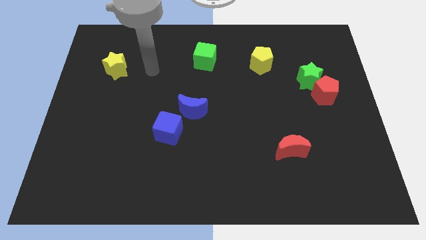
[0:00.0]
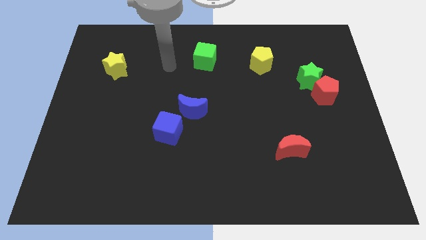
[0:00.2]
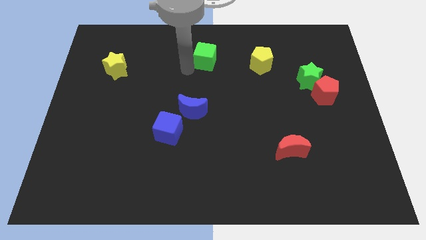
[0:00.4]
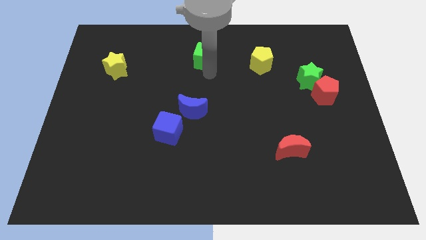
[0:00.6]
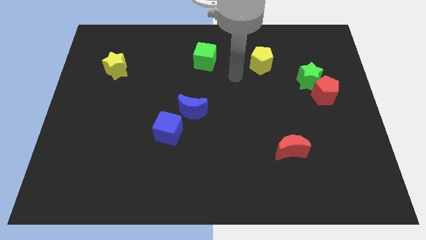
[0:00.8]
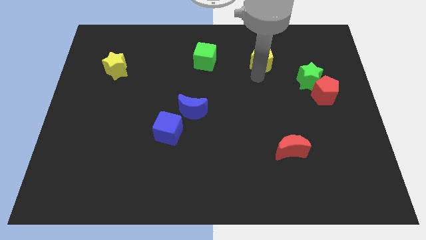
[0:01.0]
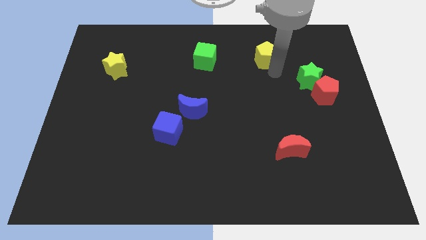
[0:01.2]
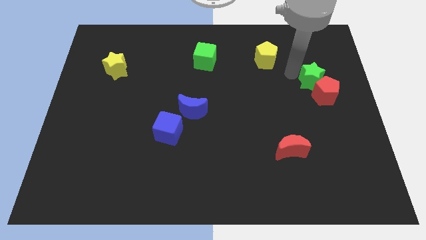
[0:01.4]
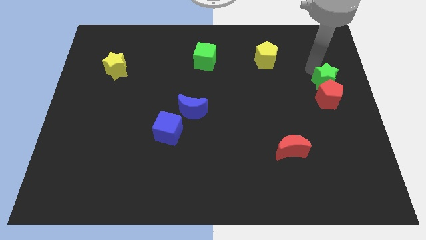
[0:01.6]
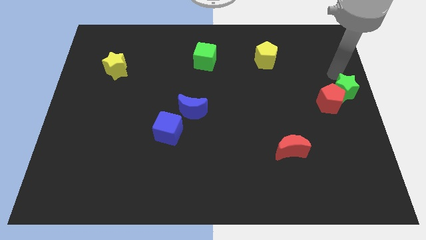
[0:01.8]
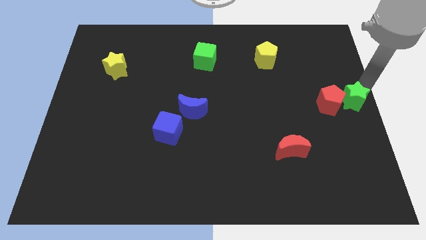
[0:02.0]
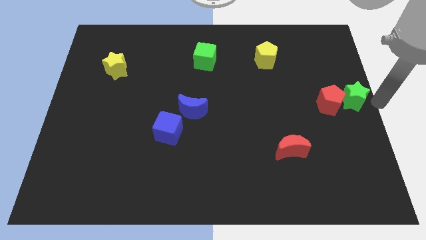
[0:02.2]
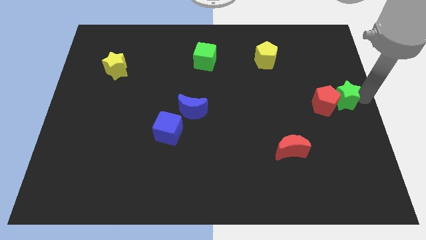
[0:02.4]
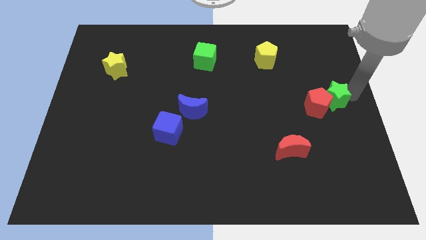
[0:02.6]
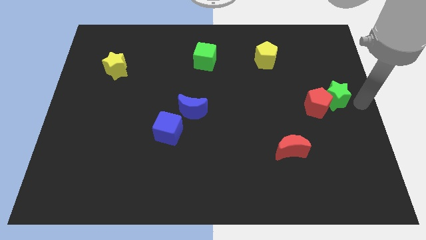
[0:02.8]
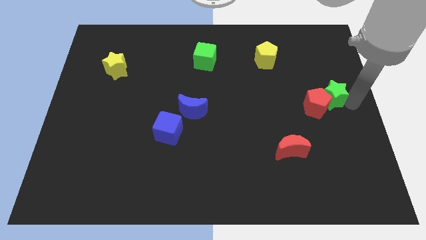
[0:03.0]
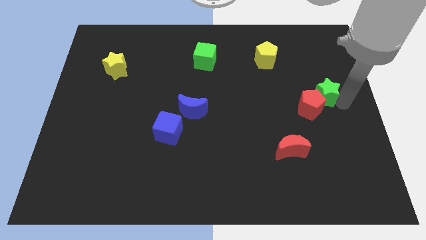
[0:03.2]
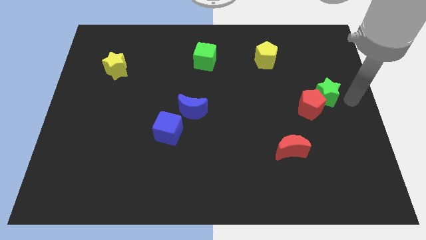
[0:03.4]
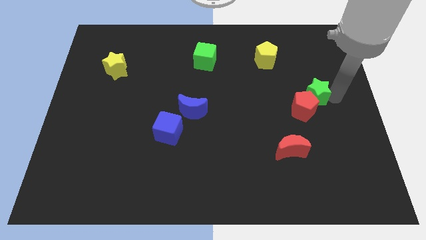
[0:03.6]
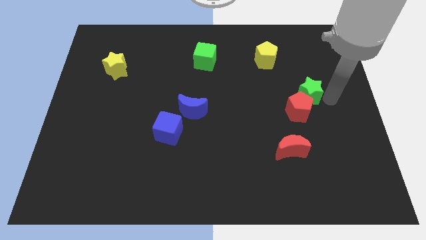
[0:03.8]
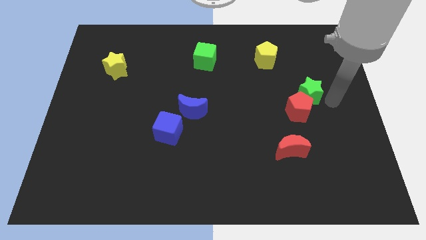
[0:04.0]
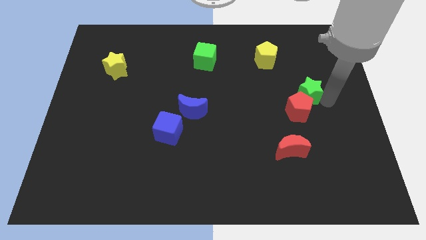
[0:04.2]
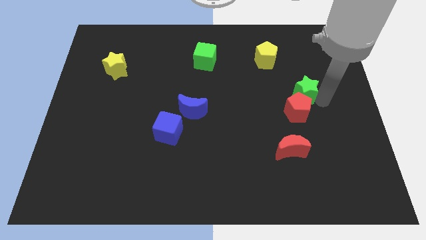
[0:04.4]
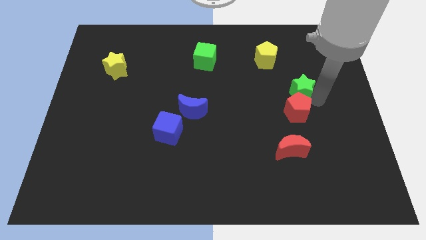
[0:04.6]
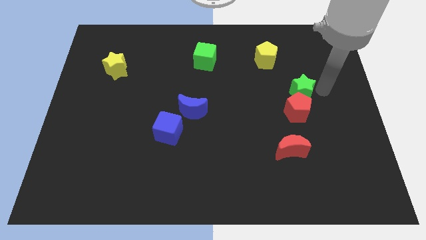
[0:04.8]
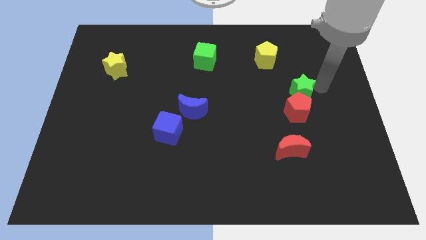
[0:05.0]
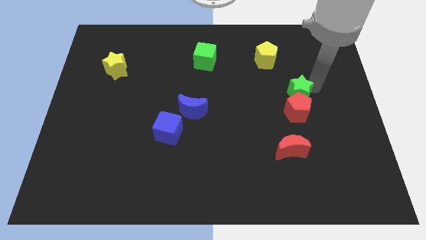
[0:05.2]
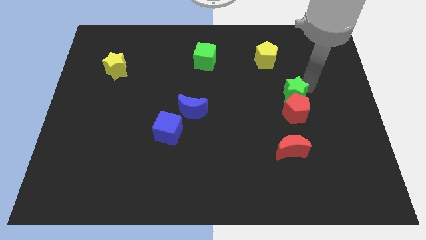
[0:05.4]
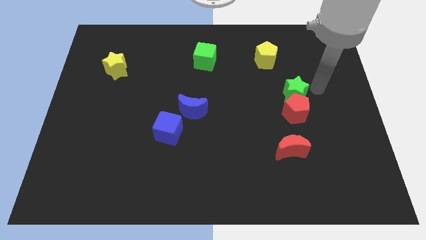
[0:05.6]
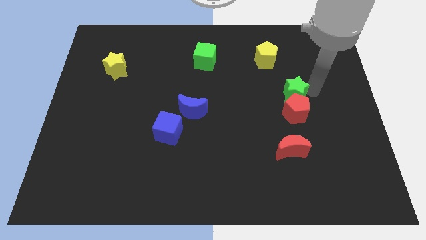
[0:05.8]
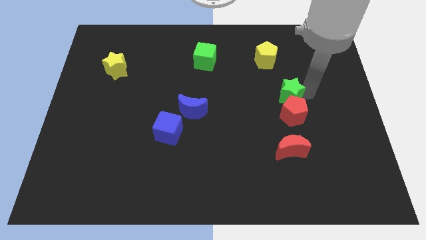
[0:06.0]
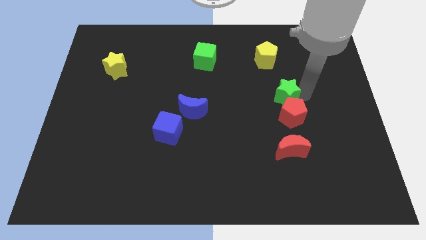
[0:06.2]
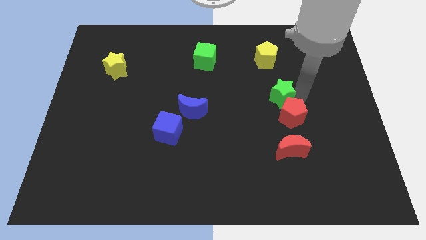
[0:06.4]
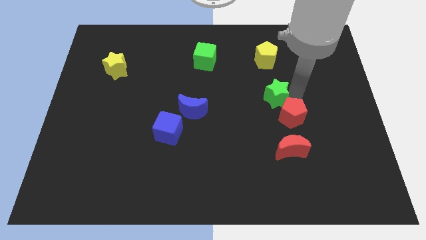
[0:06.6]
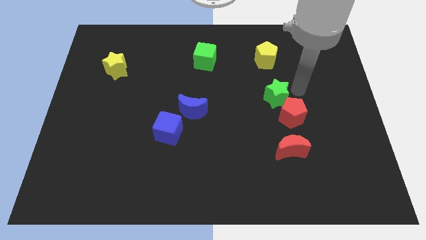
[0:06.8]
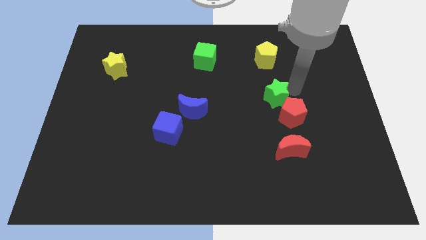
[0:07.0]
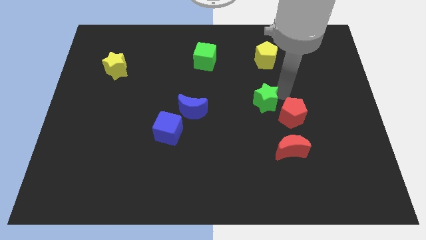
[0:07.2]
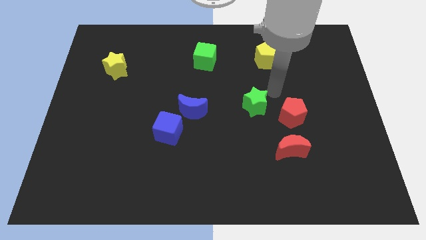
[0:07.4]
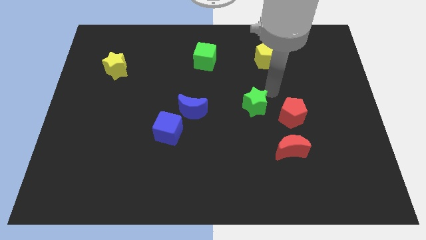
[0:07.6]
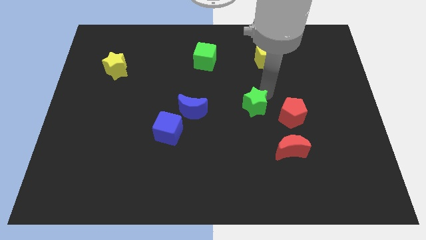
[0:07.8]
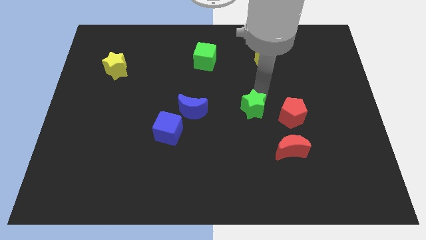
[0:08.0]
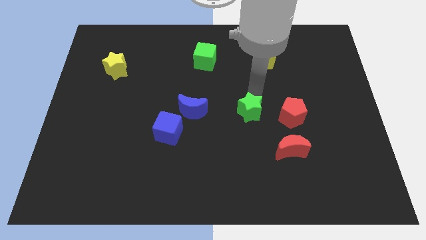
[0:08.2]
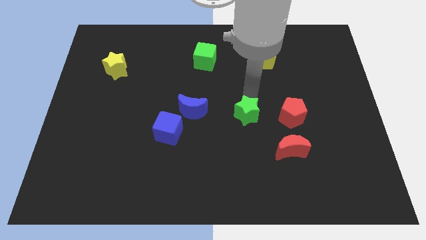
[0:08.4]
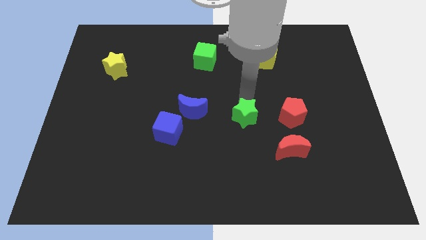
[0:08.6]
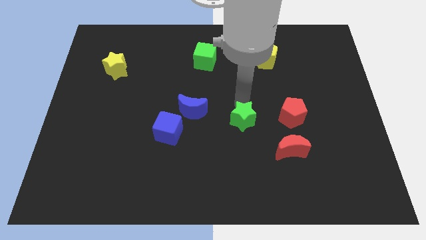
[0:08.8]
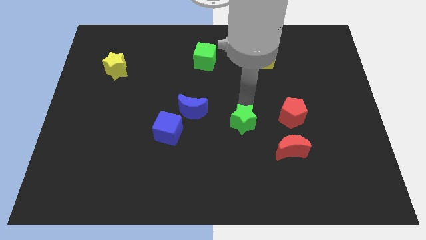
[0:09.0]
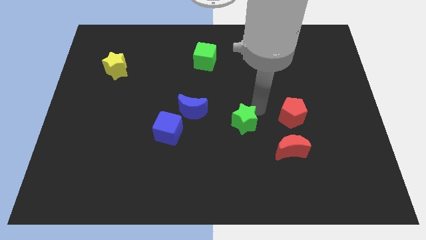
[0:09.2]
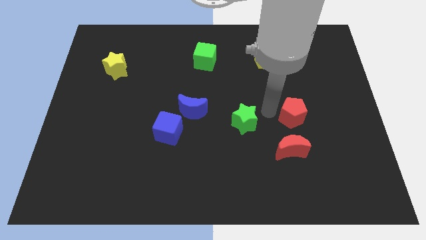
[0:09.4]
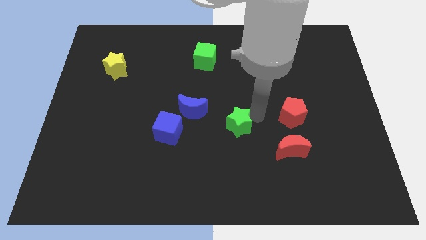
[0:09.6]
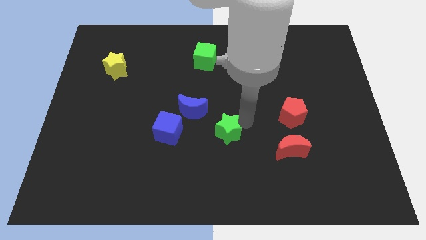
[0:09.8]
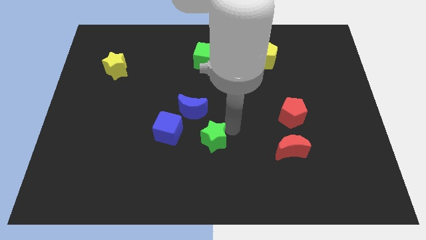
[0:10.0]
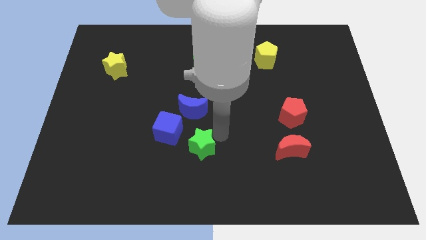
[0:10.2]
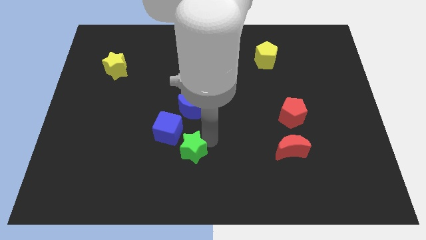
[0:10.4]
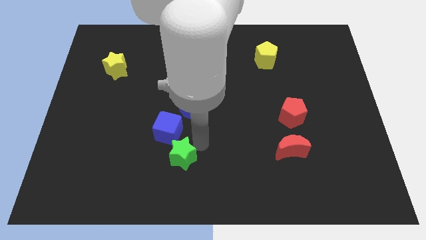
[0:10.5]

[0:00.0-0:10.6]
slide the green star to the bottom side of the blue cube

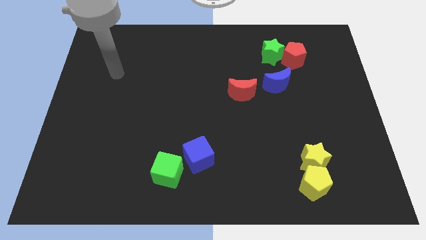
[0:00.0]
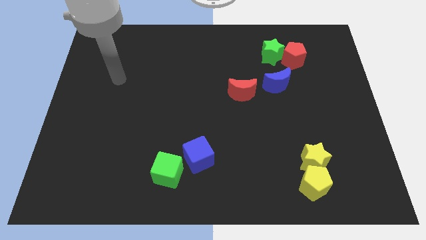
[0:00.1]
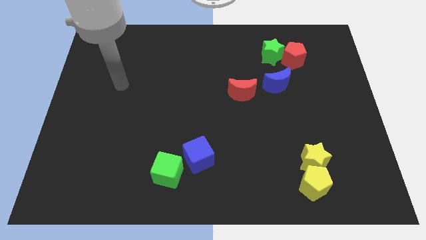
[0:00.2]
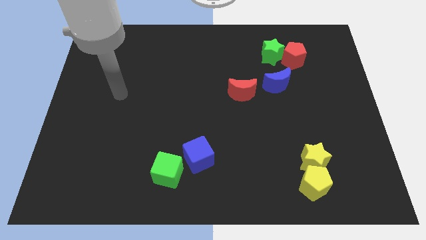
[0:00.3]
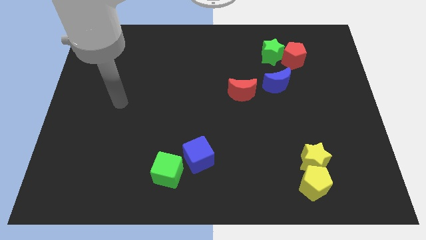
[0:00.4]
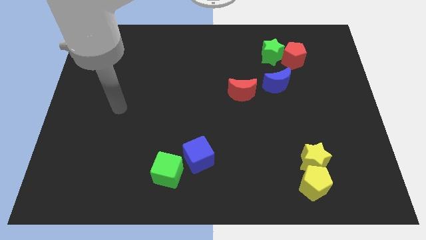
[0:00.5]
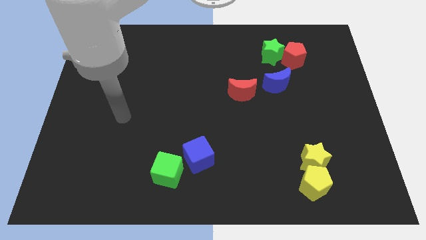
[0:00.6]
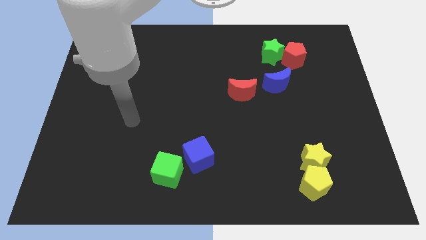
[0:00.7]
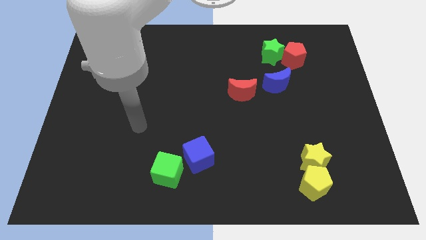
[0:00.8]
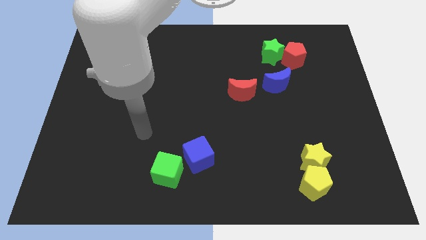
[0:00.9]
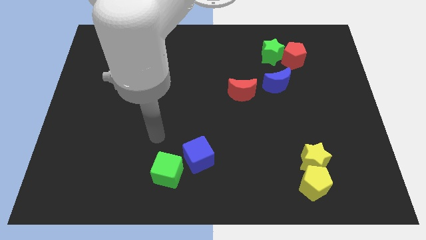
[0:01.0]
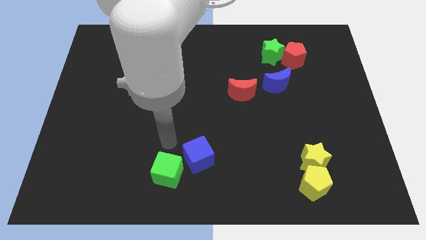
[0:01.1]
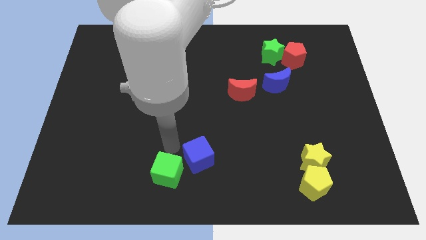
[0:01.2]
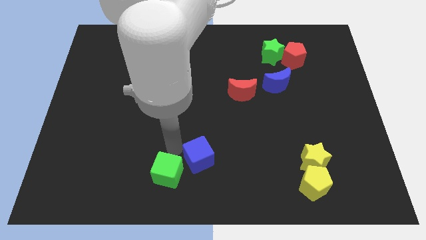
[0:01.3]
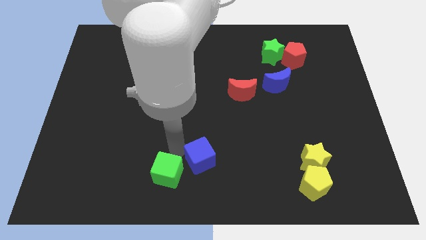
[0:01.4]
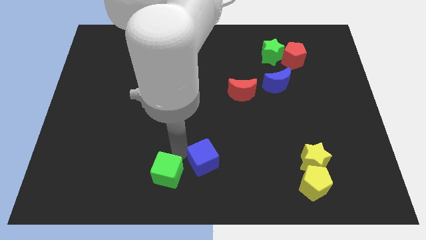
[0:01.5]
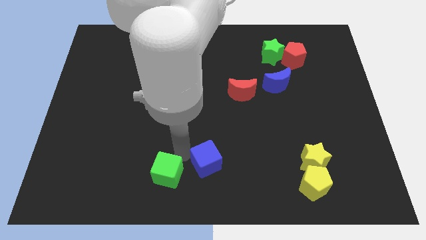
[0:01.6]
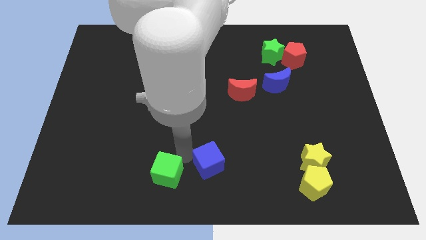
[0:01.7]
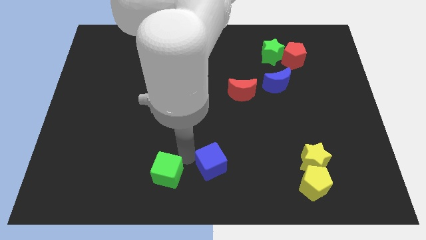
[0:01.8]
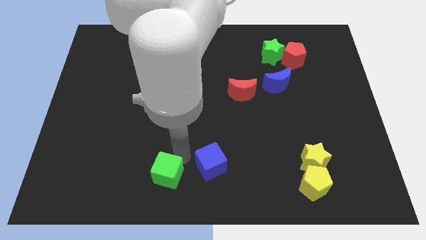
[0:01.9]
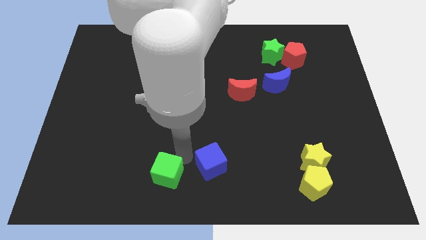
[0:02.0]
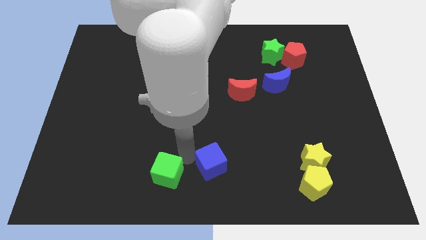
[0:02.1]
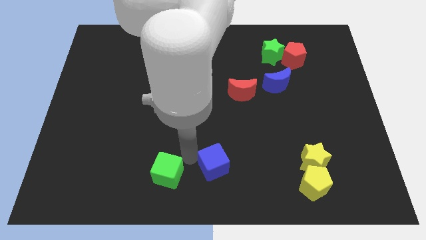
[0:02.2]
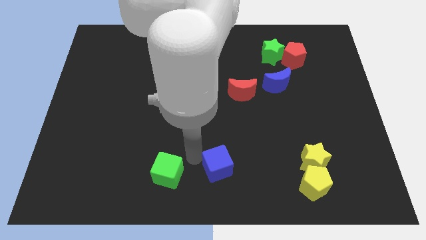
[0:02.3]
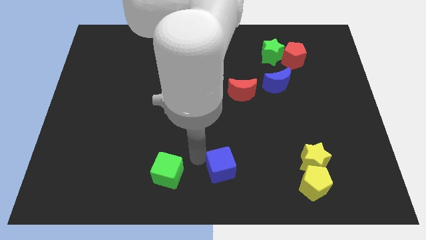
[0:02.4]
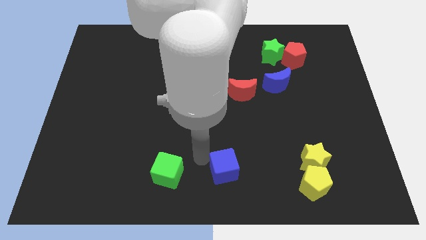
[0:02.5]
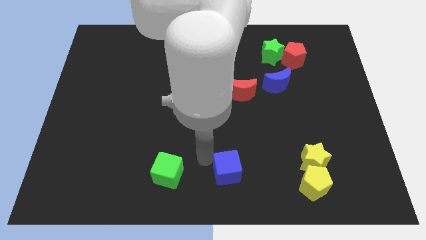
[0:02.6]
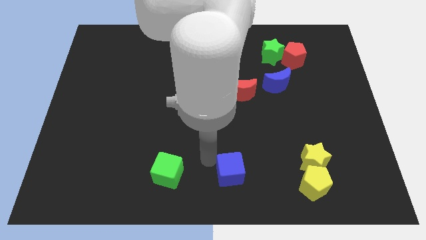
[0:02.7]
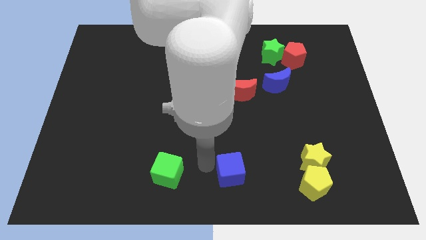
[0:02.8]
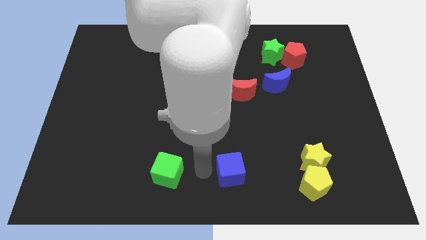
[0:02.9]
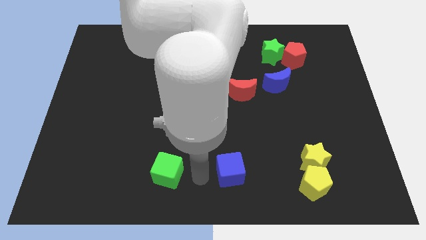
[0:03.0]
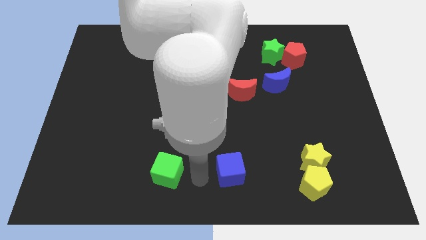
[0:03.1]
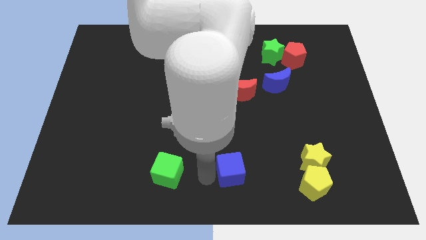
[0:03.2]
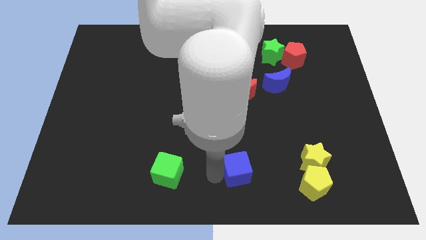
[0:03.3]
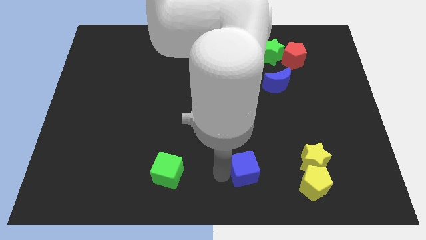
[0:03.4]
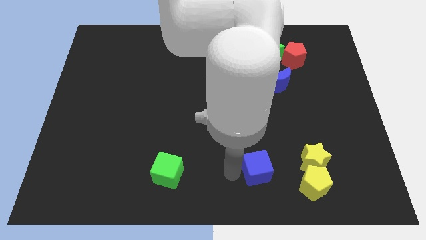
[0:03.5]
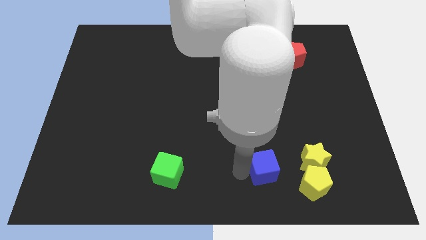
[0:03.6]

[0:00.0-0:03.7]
slide the blue cube to the top left side of the yellow pentagon
